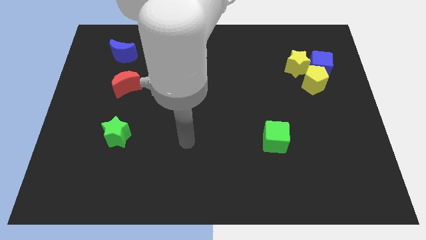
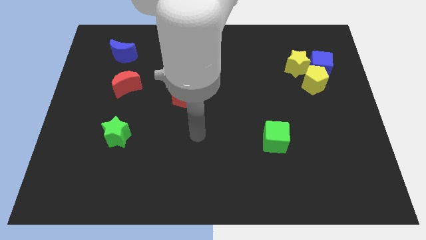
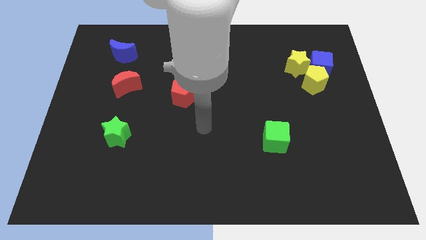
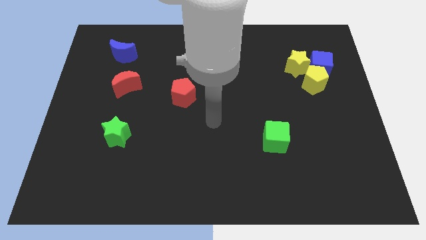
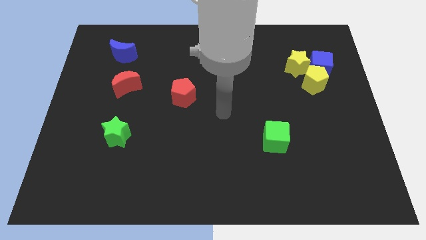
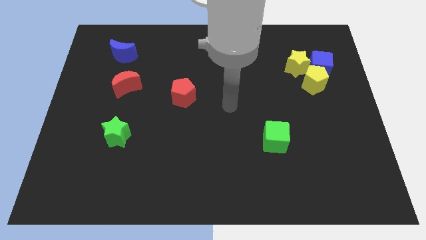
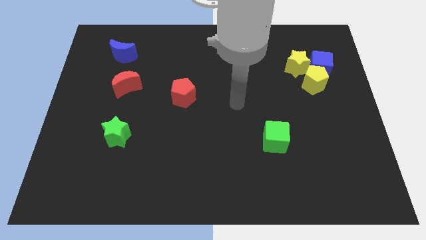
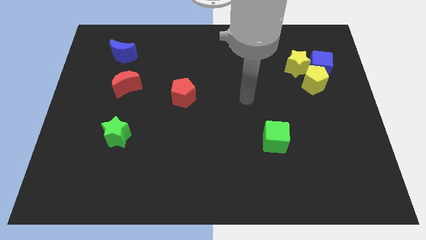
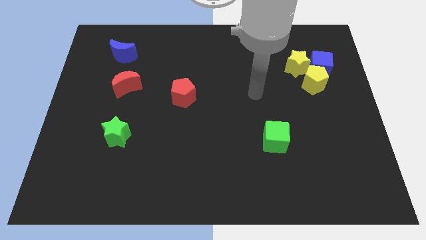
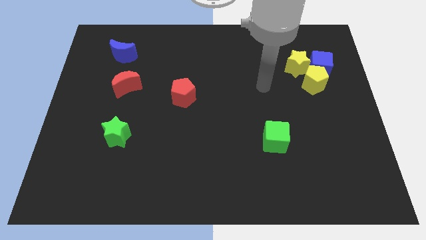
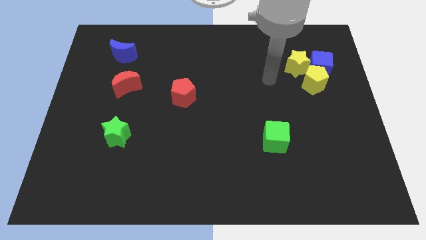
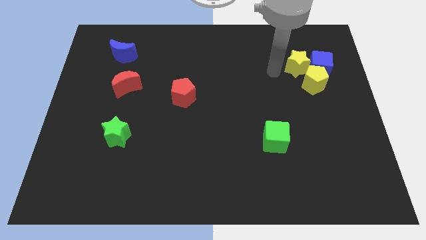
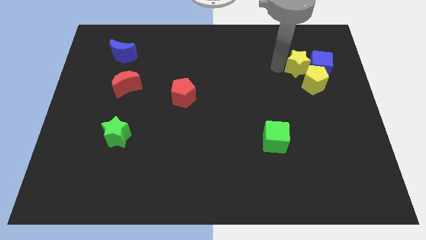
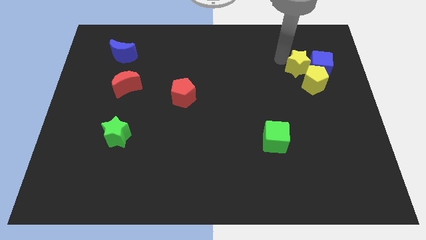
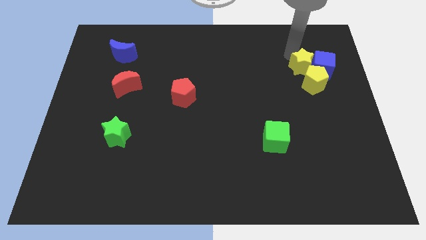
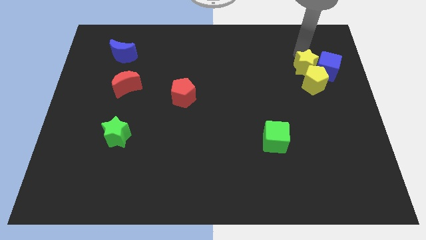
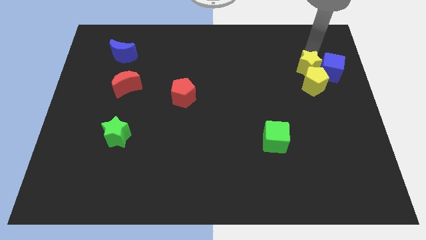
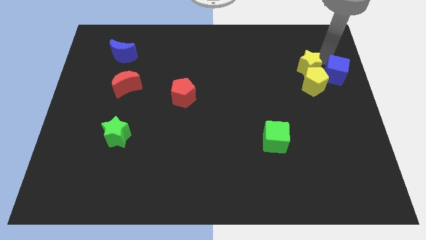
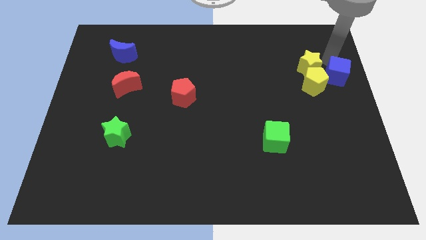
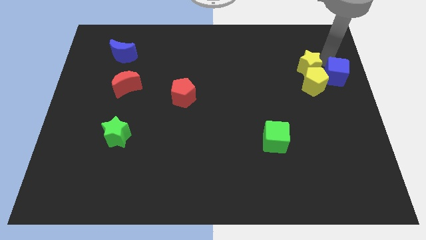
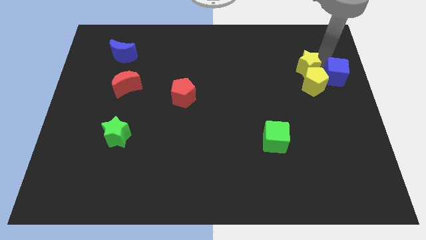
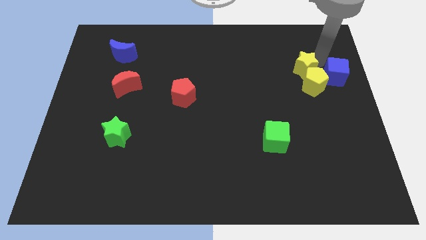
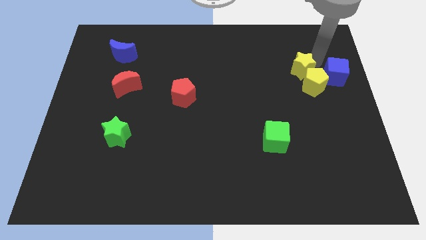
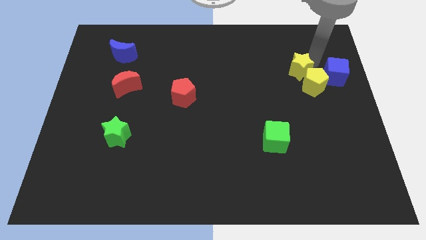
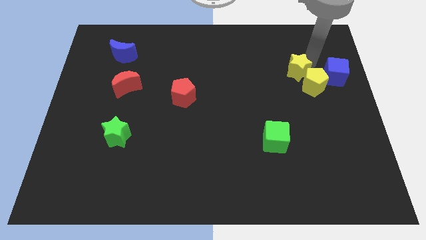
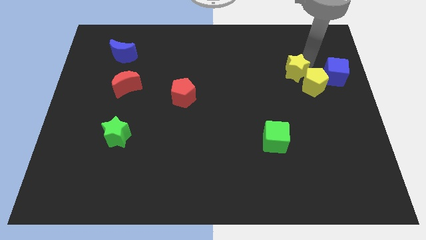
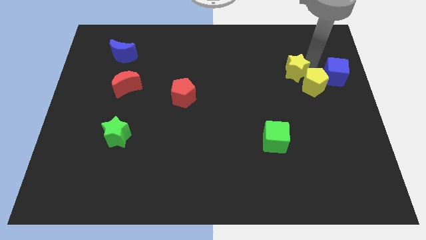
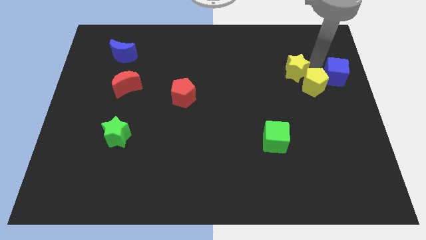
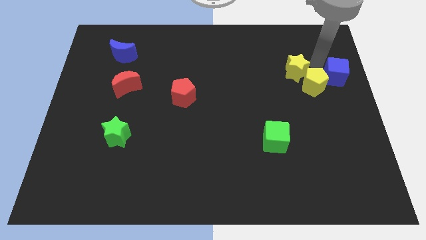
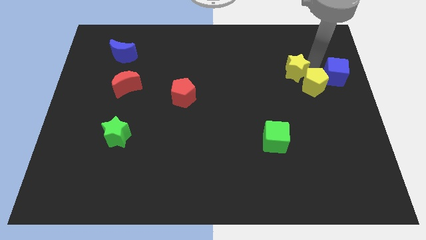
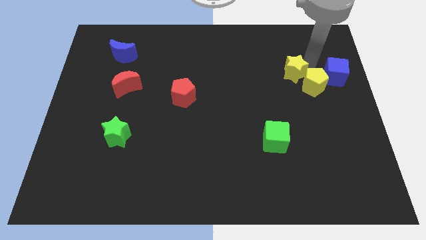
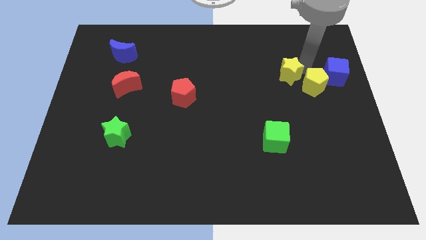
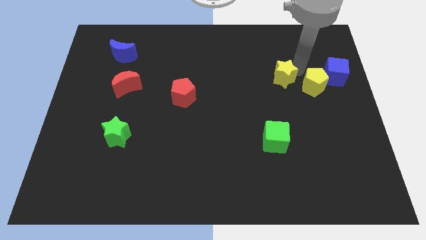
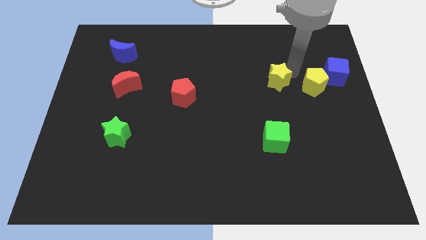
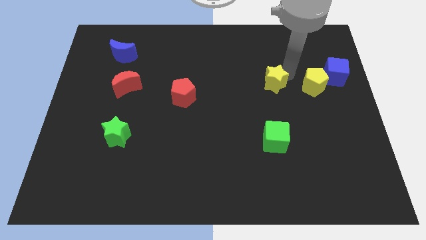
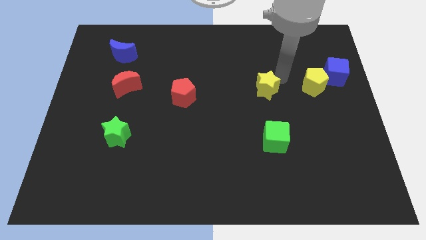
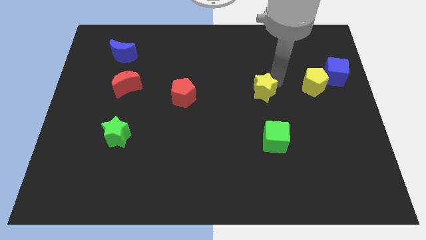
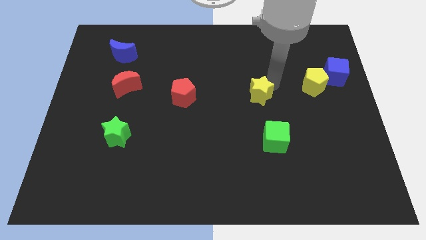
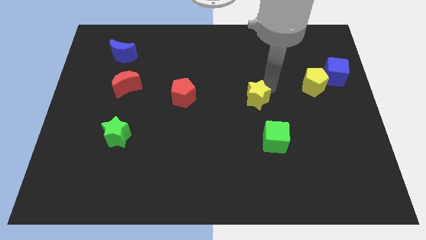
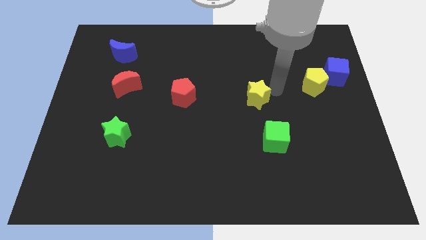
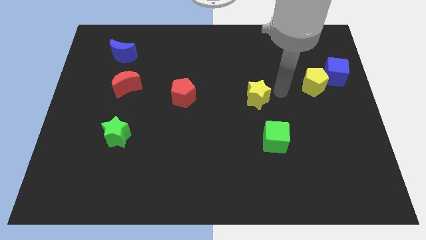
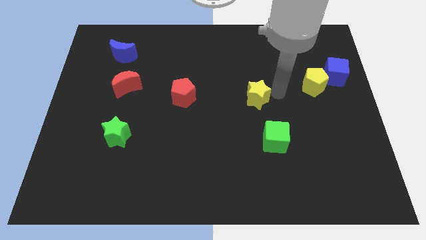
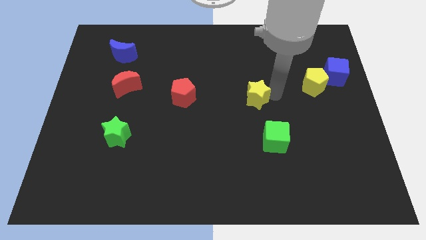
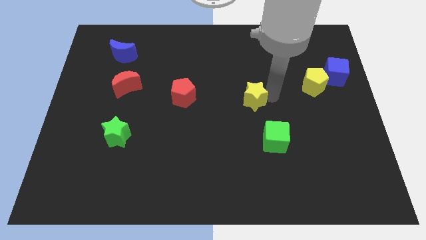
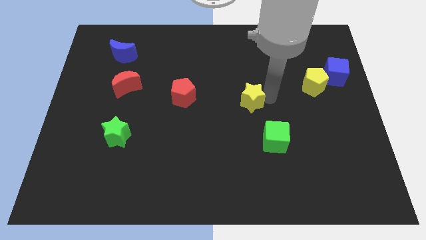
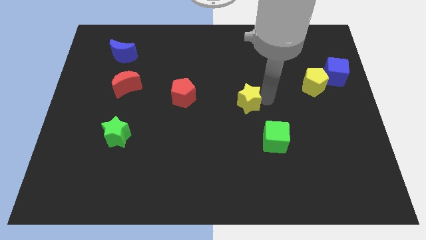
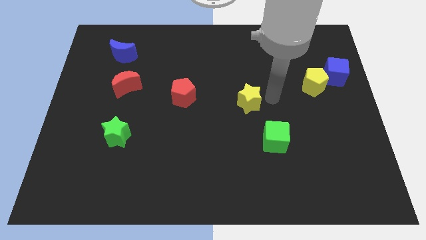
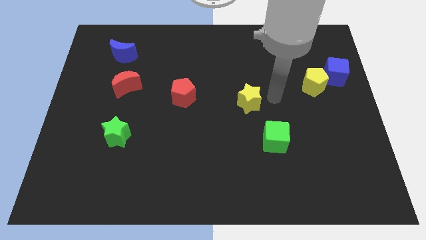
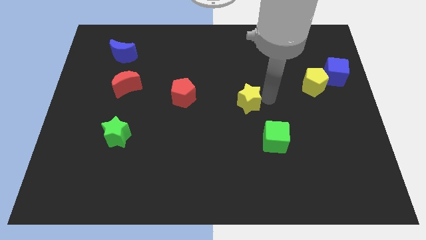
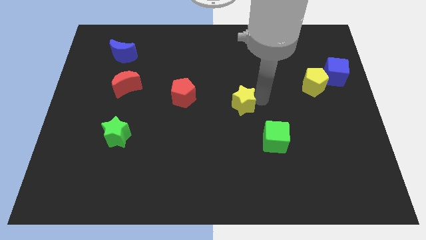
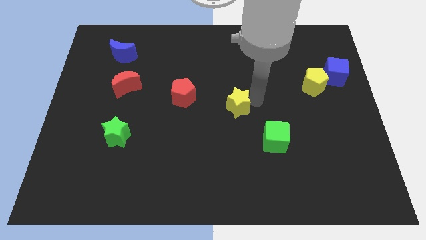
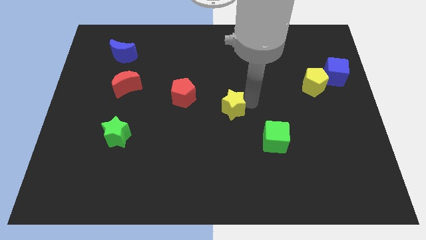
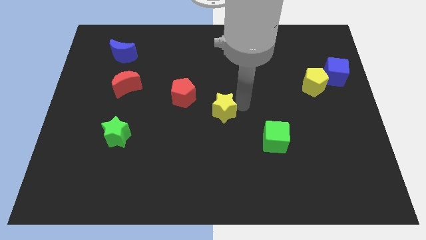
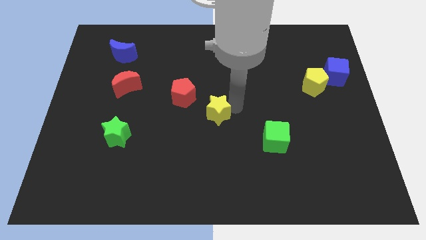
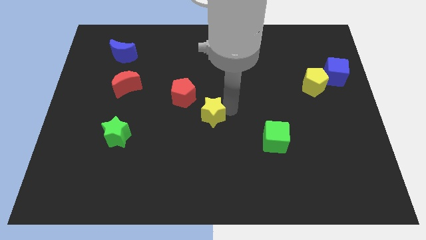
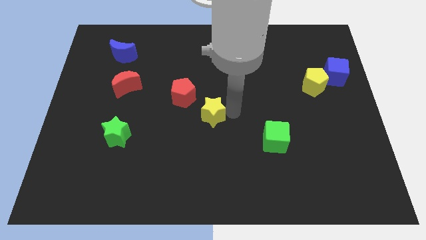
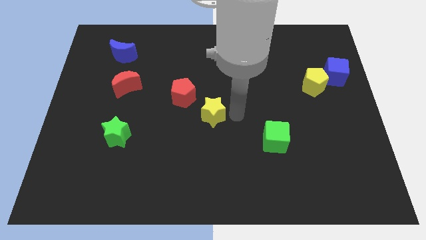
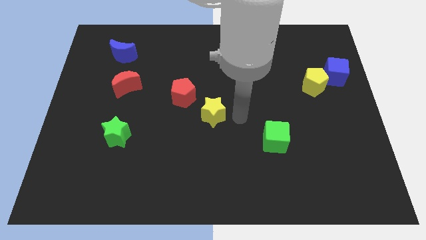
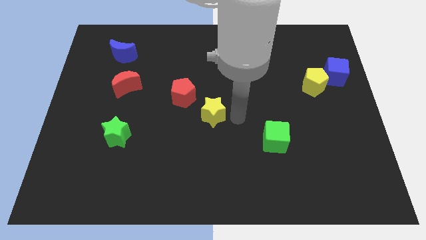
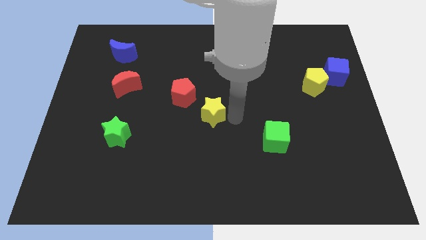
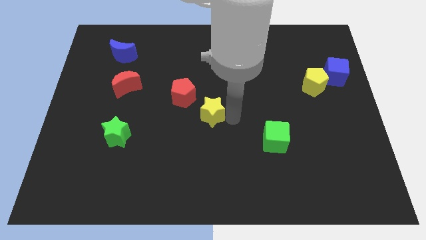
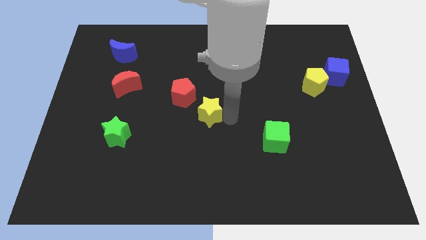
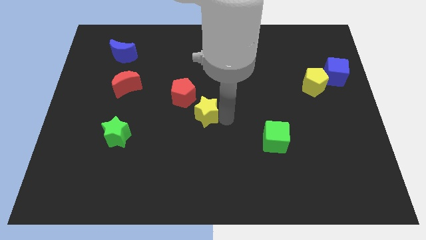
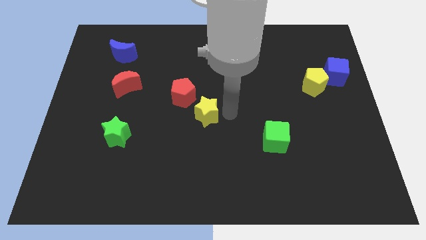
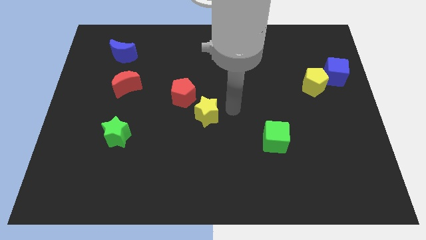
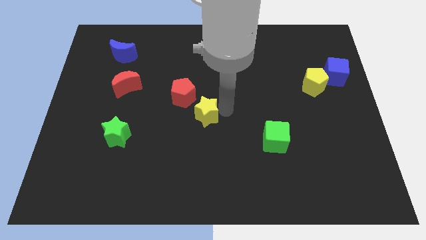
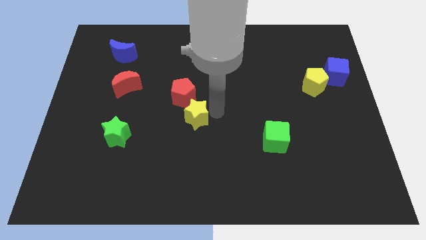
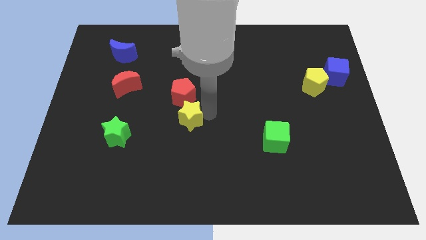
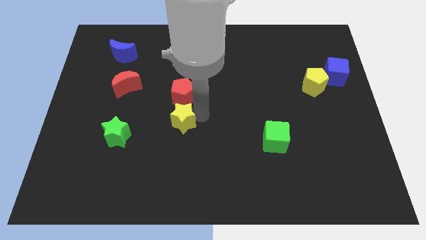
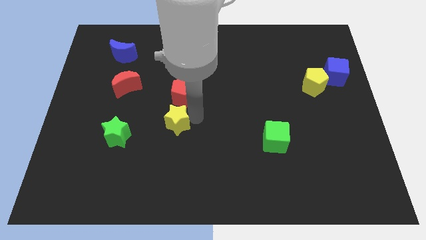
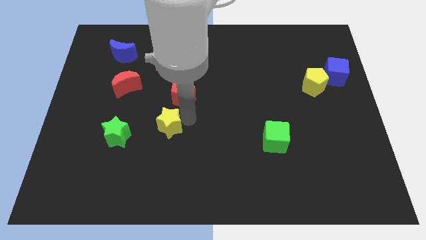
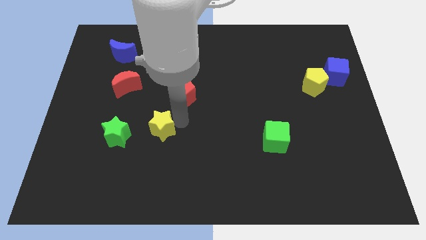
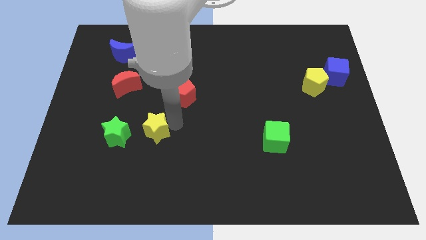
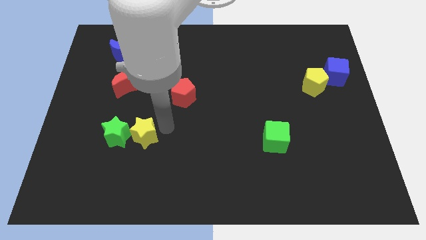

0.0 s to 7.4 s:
push the yellow star towards the green star
